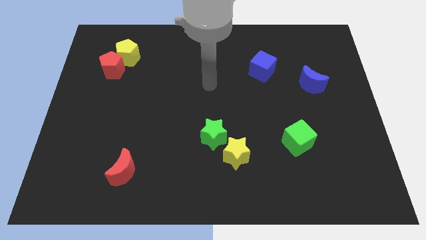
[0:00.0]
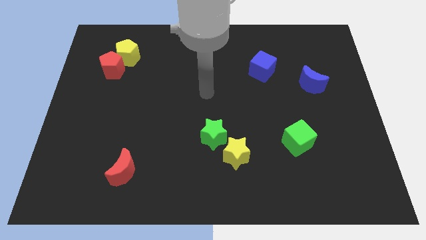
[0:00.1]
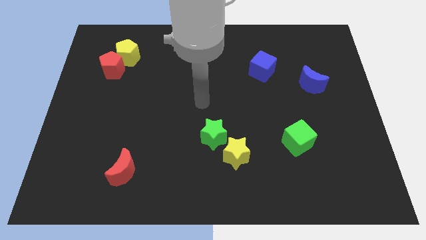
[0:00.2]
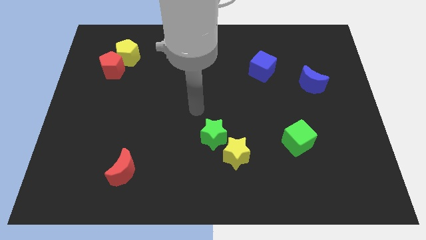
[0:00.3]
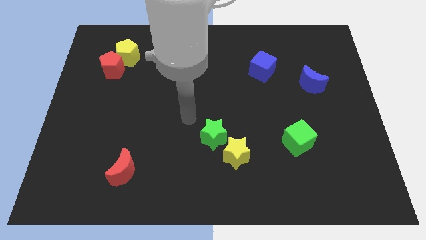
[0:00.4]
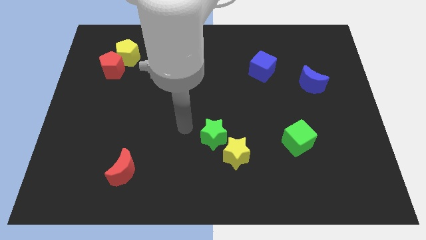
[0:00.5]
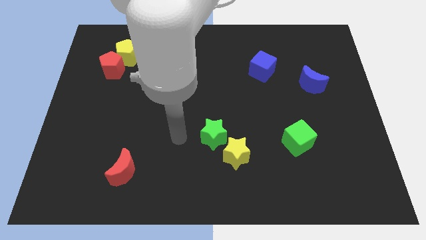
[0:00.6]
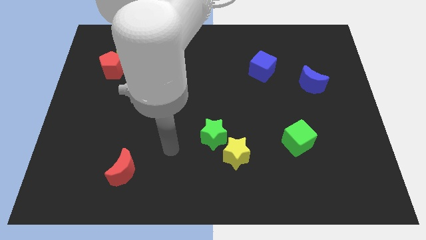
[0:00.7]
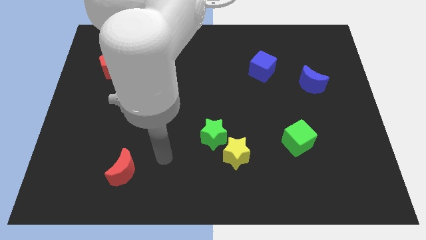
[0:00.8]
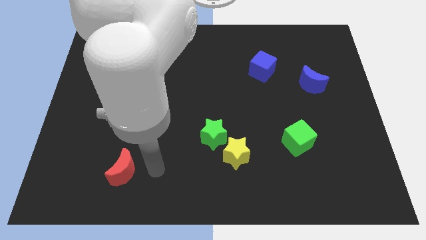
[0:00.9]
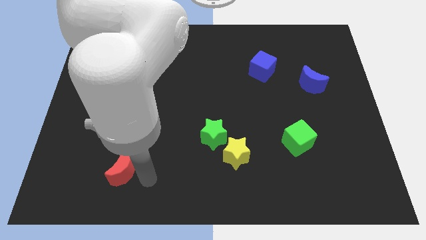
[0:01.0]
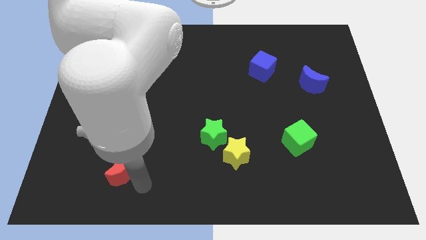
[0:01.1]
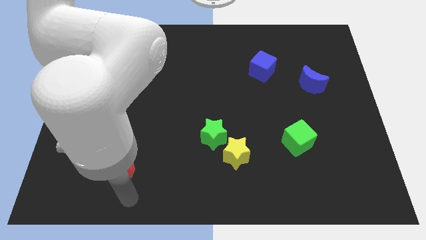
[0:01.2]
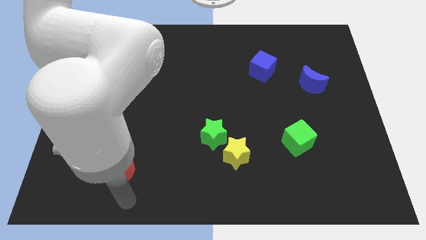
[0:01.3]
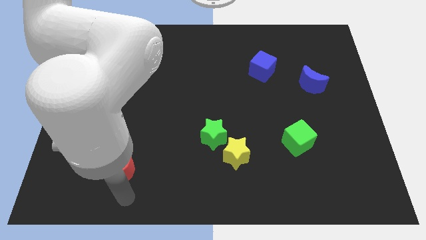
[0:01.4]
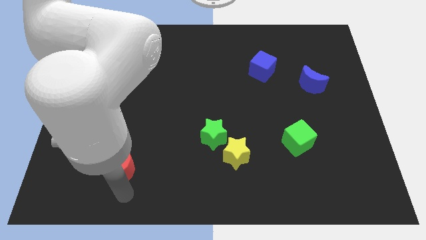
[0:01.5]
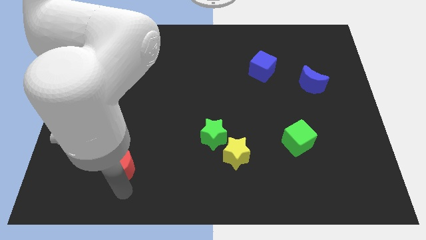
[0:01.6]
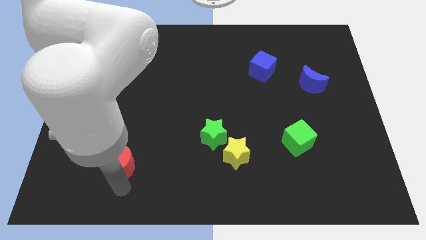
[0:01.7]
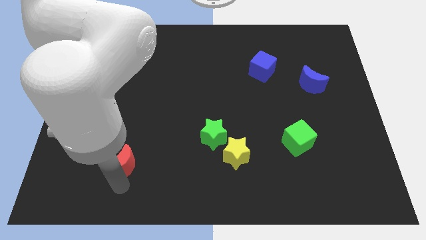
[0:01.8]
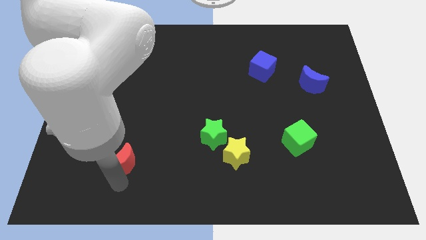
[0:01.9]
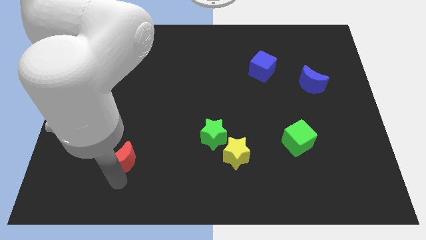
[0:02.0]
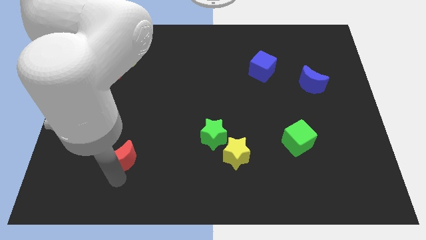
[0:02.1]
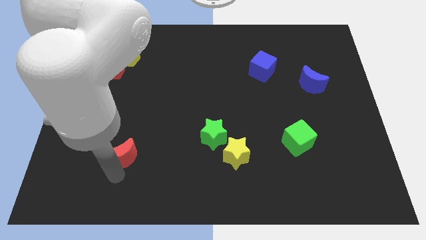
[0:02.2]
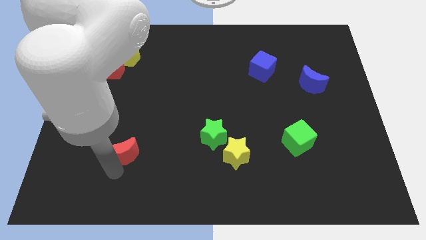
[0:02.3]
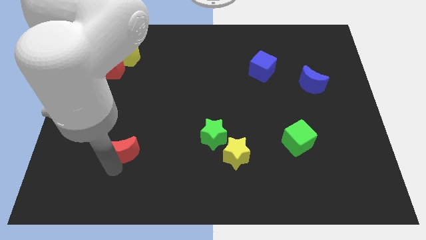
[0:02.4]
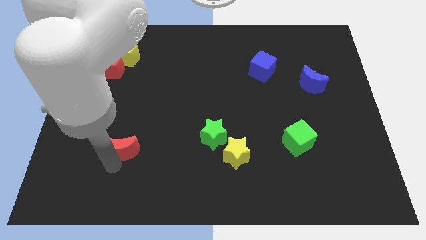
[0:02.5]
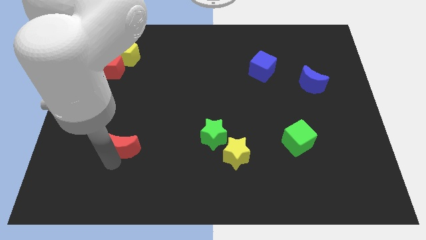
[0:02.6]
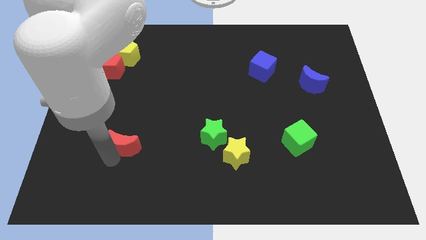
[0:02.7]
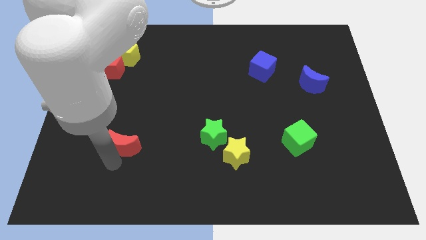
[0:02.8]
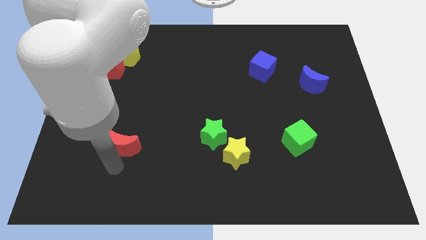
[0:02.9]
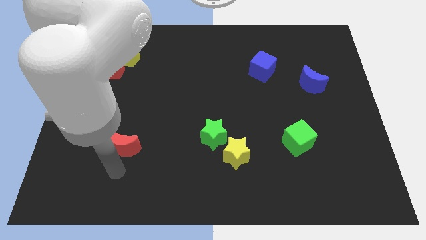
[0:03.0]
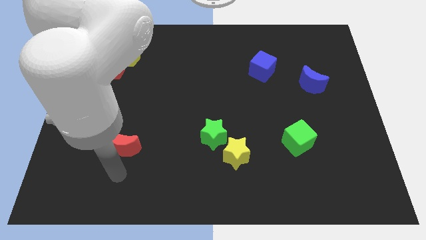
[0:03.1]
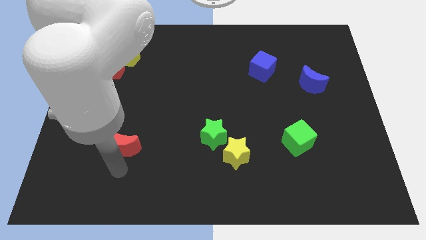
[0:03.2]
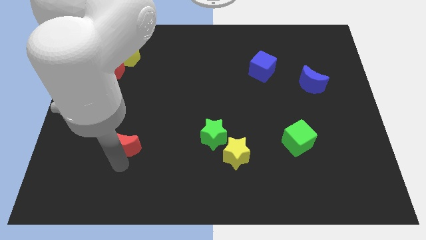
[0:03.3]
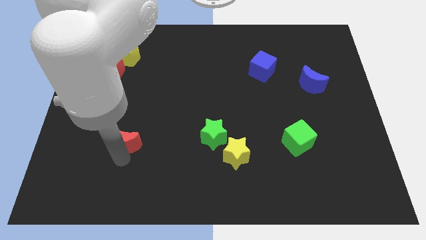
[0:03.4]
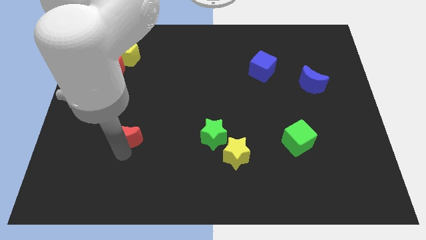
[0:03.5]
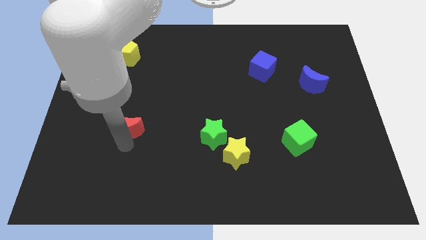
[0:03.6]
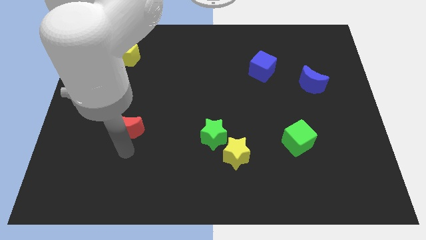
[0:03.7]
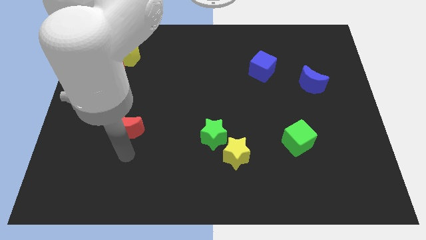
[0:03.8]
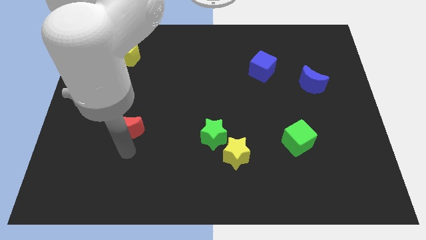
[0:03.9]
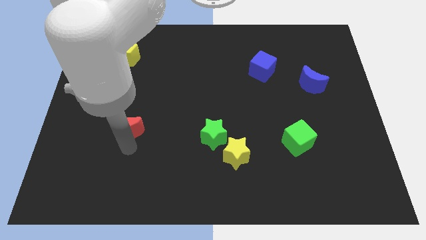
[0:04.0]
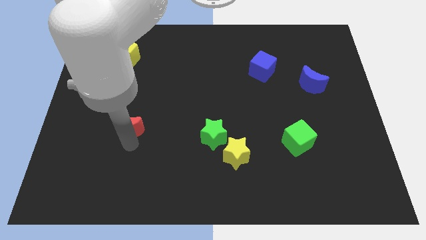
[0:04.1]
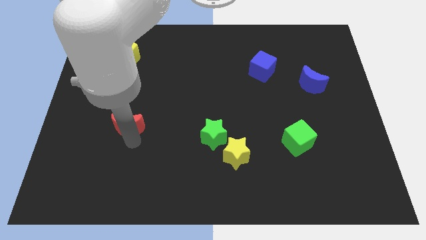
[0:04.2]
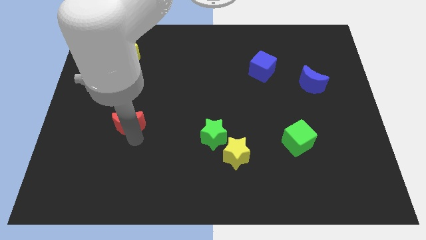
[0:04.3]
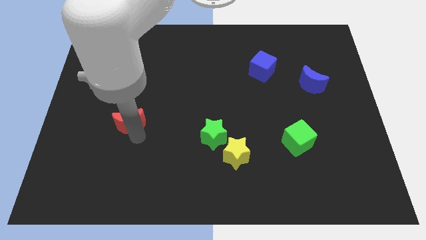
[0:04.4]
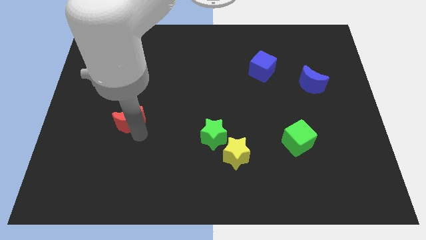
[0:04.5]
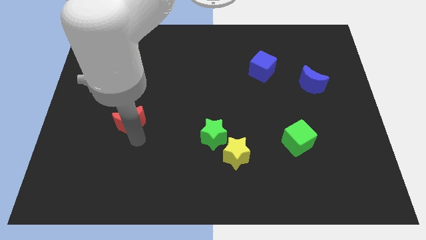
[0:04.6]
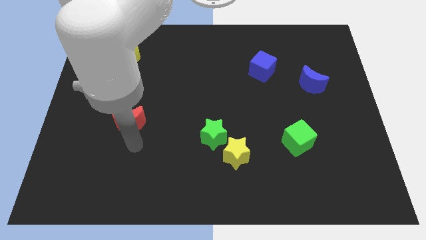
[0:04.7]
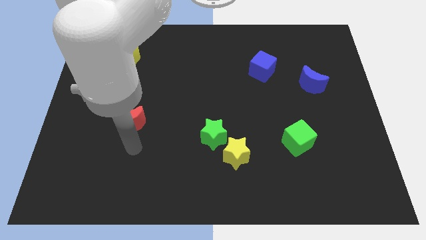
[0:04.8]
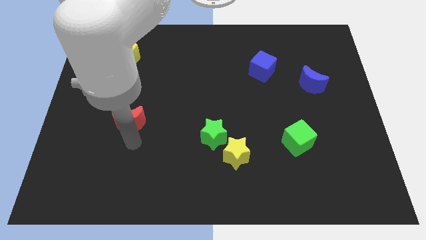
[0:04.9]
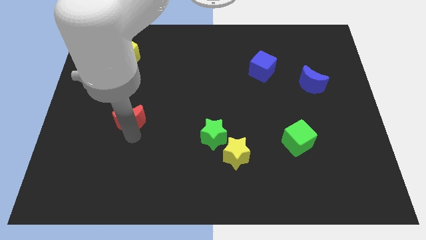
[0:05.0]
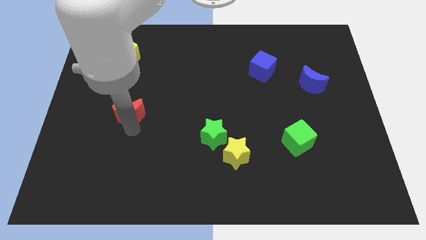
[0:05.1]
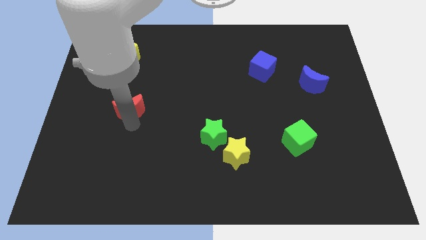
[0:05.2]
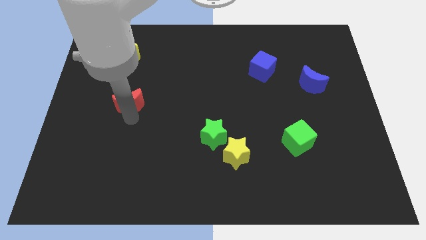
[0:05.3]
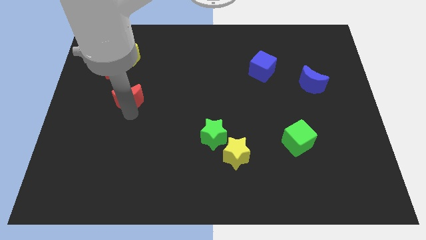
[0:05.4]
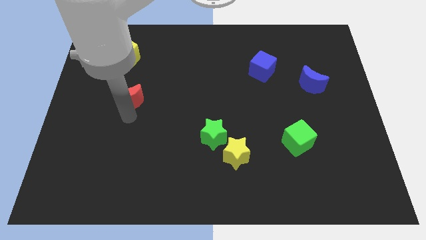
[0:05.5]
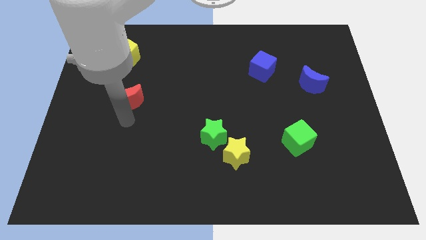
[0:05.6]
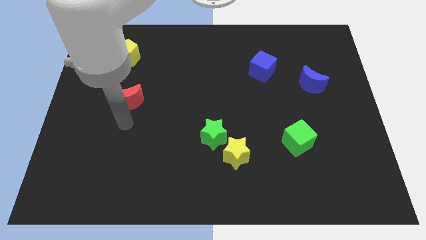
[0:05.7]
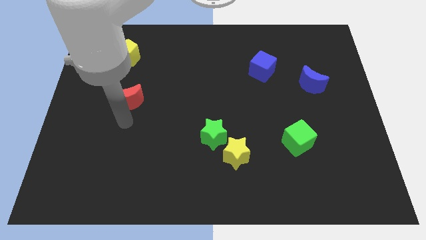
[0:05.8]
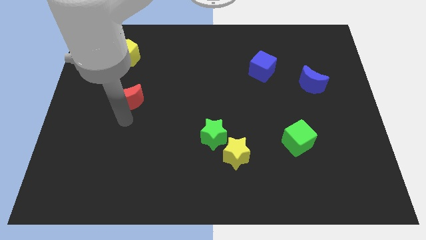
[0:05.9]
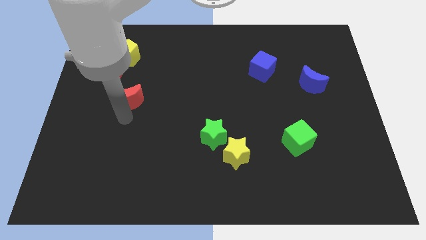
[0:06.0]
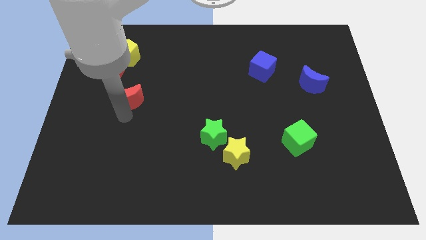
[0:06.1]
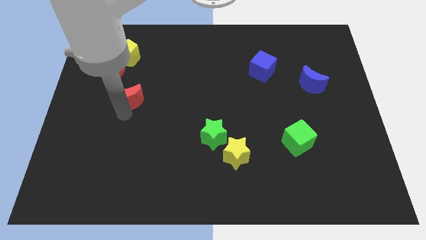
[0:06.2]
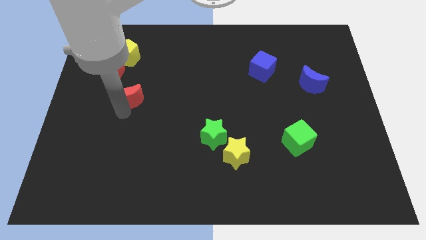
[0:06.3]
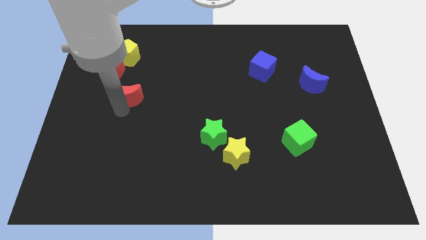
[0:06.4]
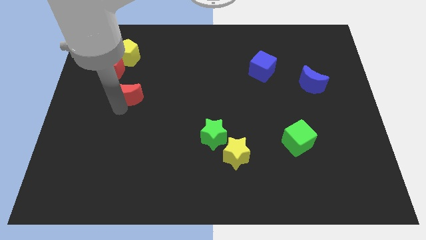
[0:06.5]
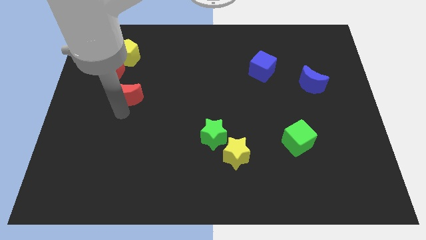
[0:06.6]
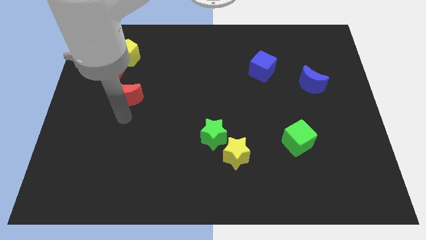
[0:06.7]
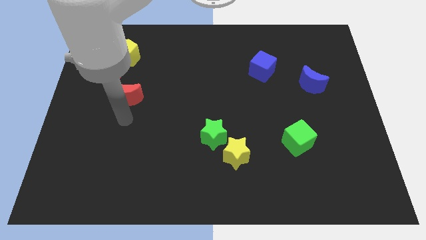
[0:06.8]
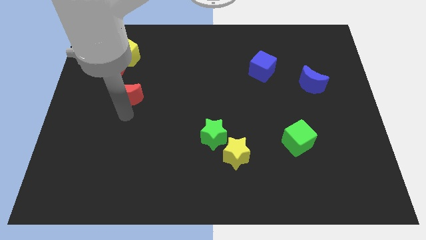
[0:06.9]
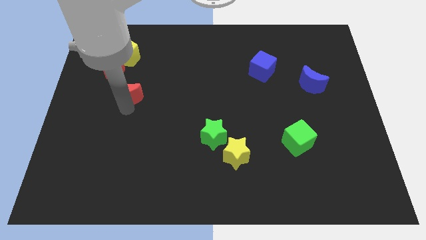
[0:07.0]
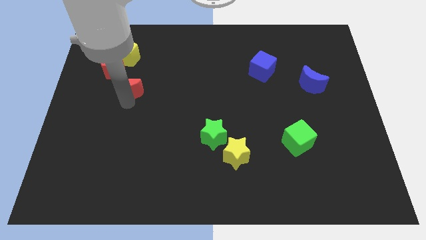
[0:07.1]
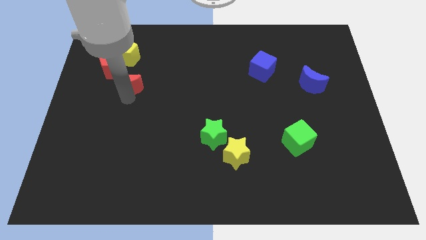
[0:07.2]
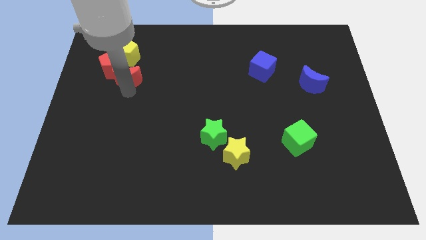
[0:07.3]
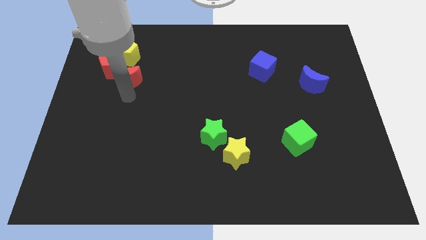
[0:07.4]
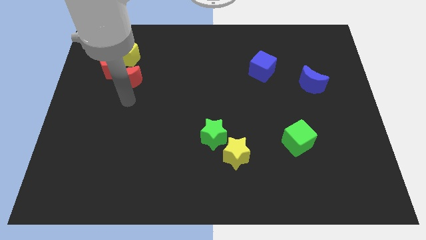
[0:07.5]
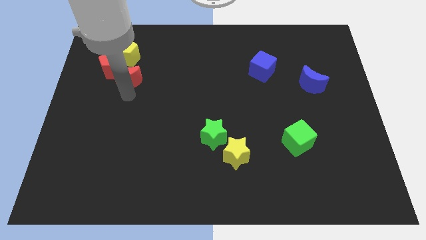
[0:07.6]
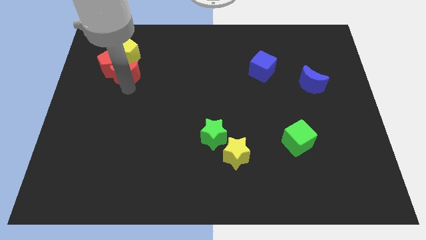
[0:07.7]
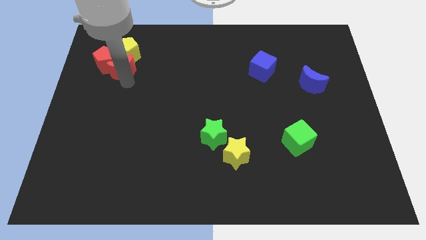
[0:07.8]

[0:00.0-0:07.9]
push the red moon next to the yellow pentagon
